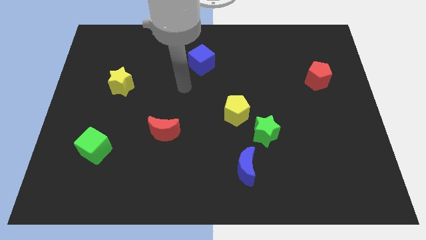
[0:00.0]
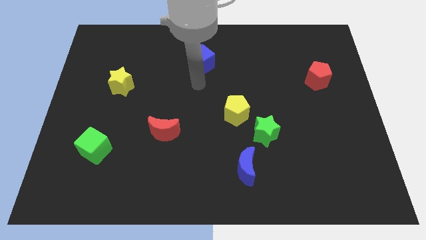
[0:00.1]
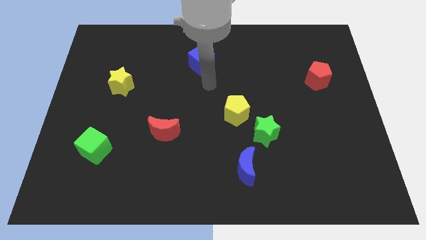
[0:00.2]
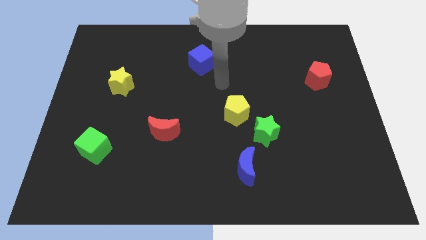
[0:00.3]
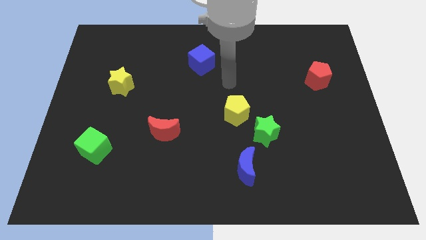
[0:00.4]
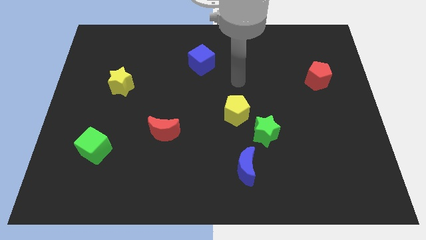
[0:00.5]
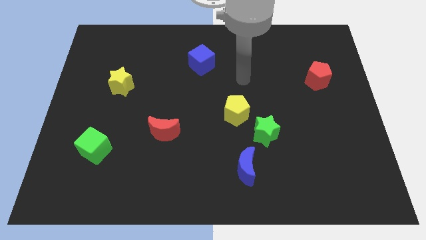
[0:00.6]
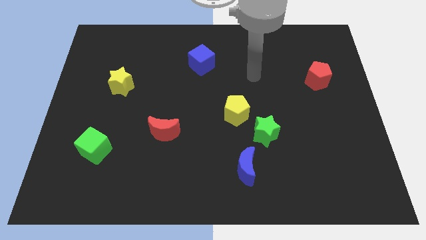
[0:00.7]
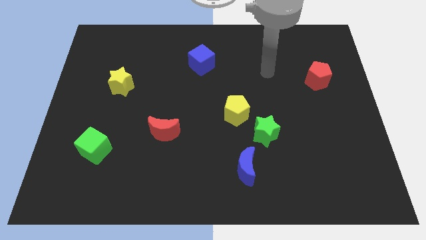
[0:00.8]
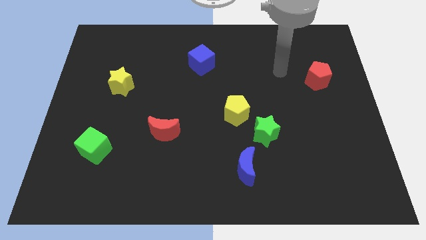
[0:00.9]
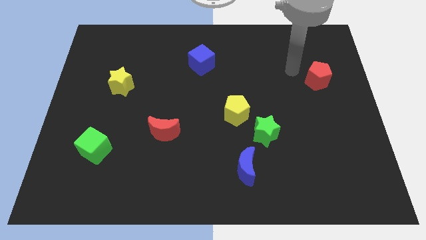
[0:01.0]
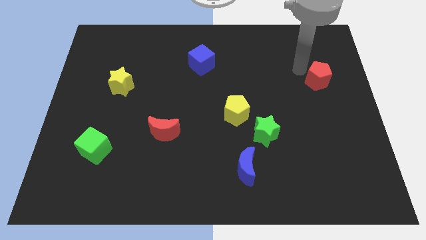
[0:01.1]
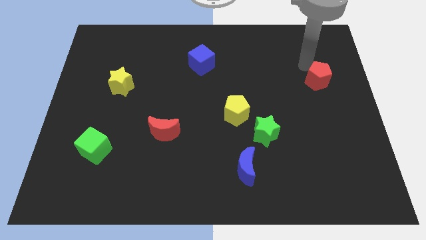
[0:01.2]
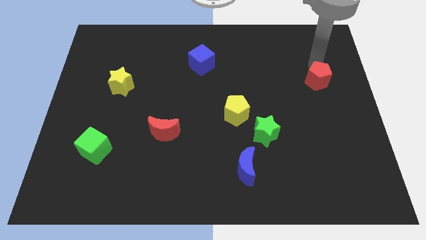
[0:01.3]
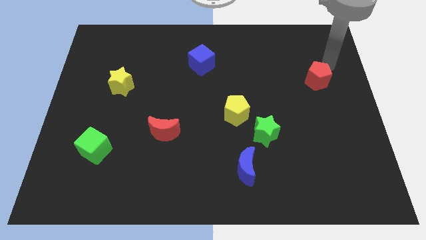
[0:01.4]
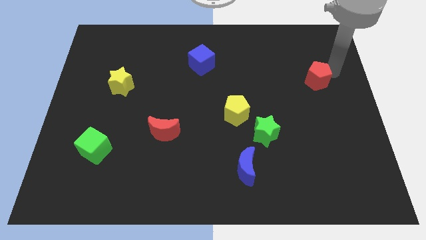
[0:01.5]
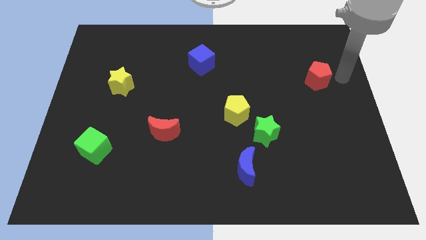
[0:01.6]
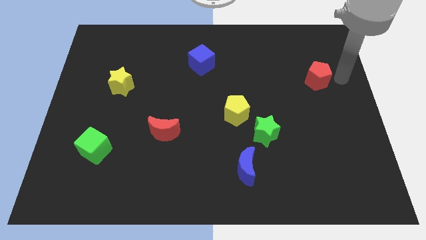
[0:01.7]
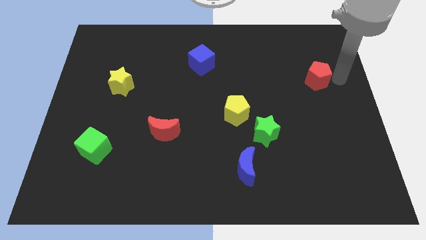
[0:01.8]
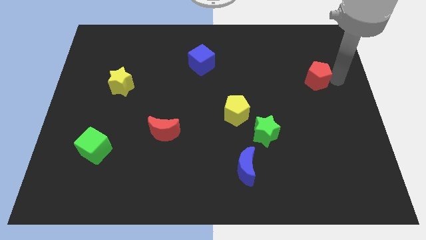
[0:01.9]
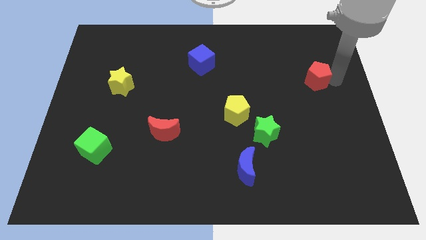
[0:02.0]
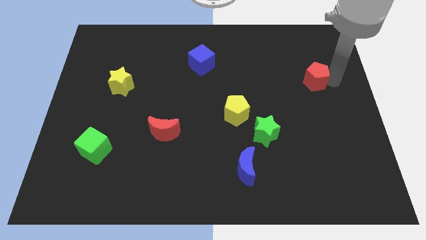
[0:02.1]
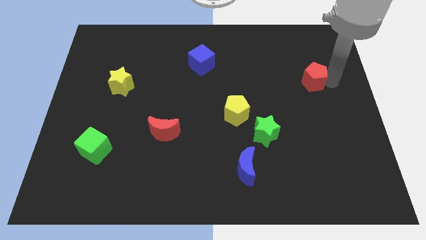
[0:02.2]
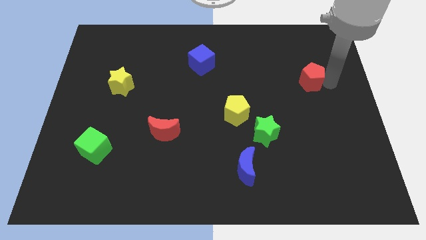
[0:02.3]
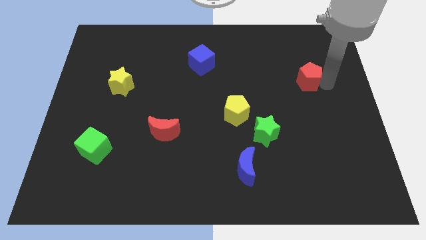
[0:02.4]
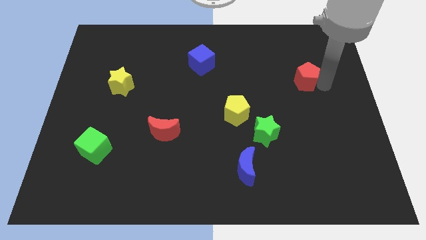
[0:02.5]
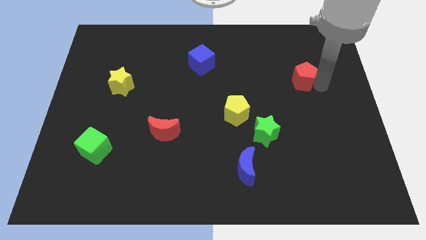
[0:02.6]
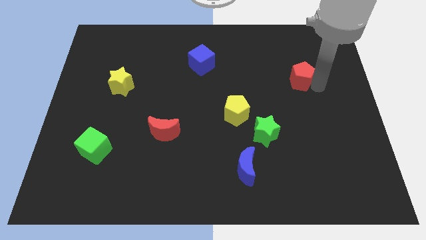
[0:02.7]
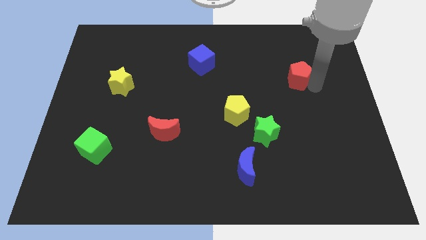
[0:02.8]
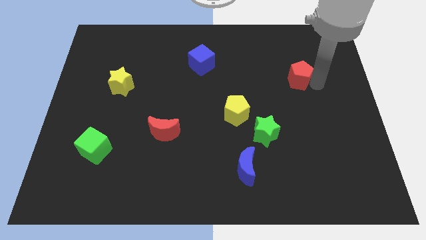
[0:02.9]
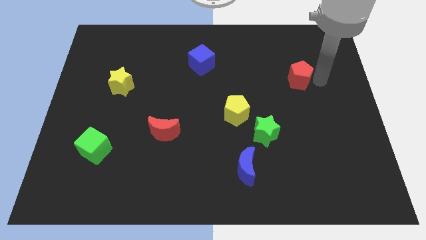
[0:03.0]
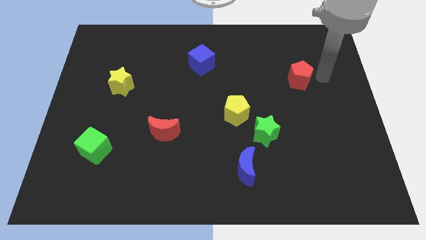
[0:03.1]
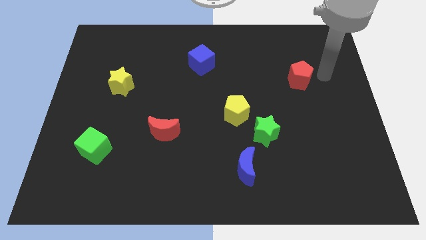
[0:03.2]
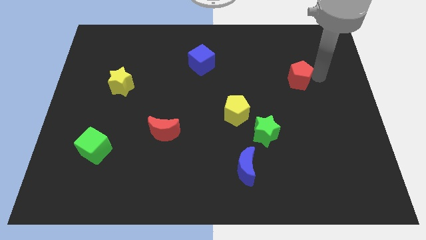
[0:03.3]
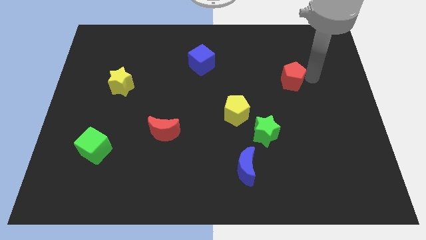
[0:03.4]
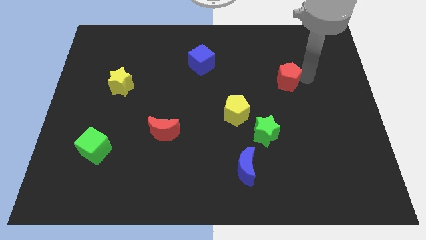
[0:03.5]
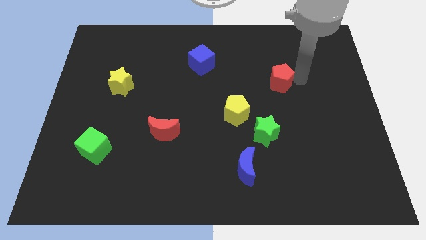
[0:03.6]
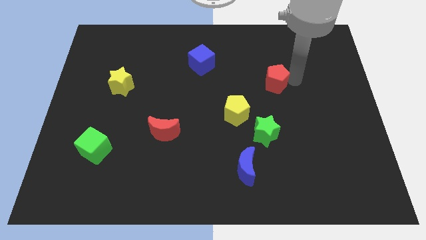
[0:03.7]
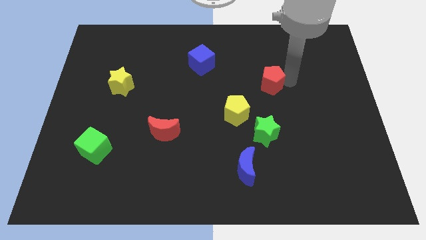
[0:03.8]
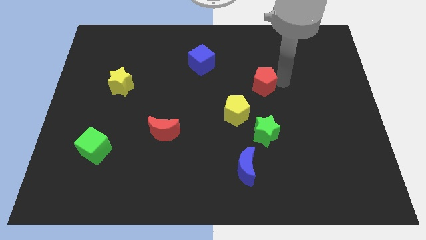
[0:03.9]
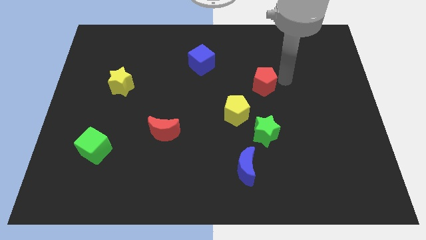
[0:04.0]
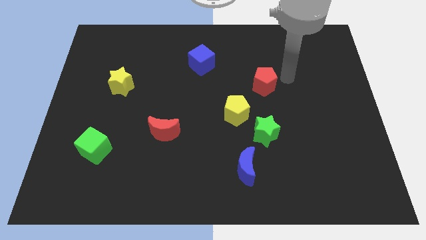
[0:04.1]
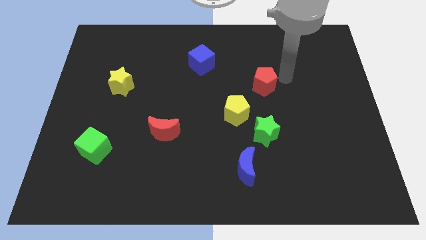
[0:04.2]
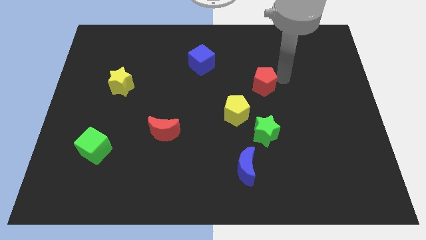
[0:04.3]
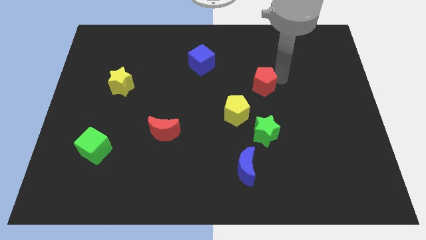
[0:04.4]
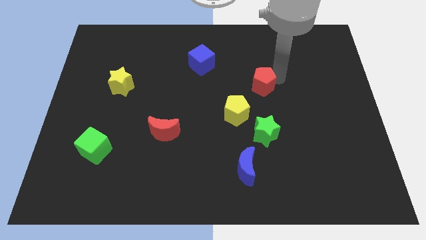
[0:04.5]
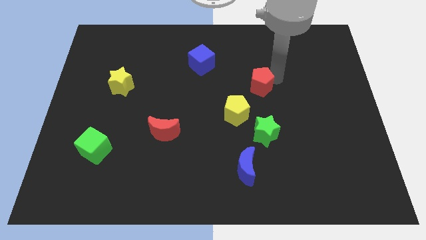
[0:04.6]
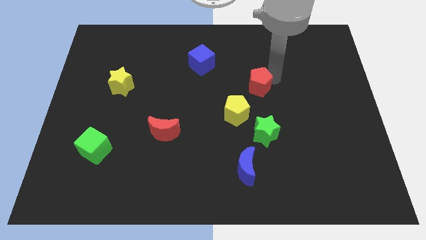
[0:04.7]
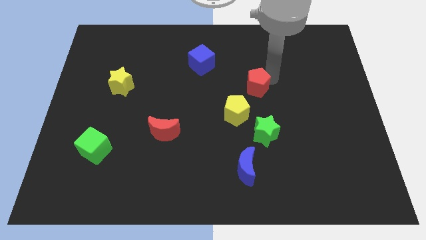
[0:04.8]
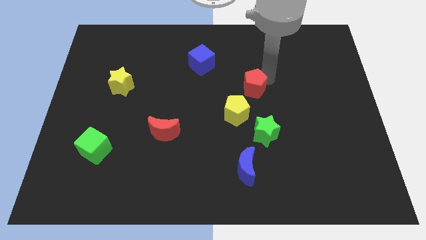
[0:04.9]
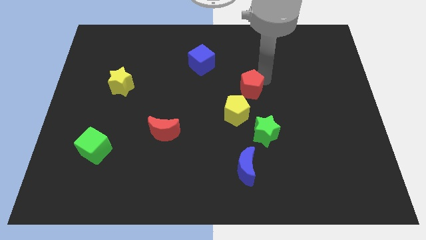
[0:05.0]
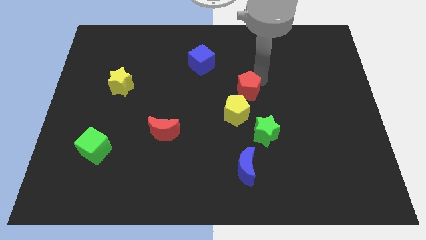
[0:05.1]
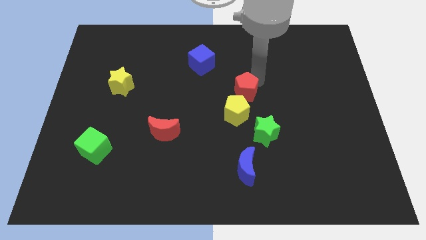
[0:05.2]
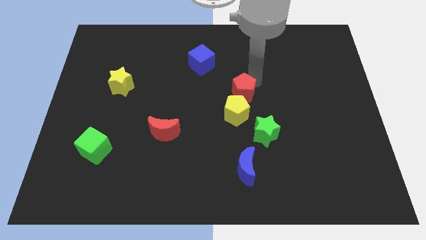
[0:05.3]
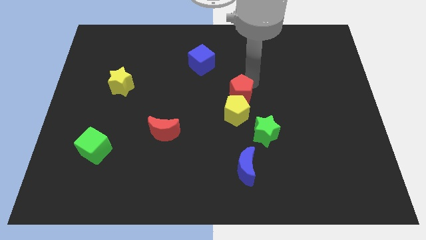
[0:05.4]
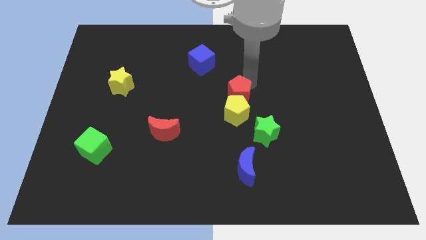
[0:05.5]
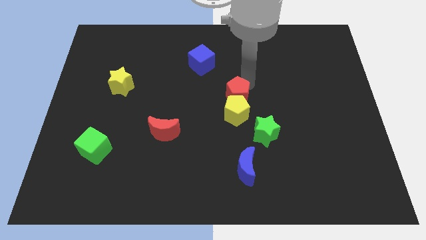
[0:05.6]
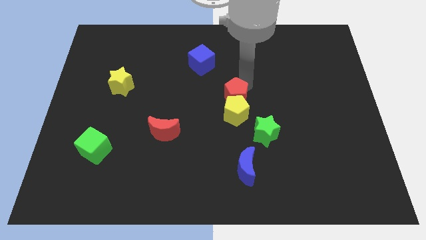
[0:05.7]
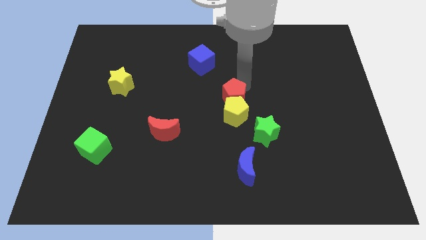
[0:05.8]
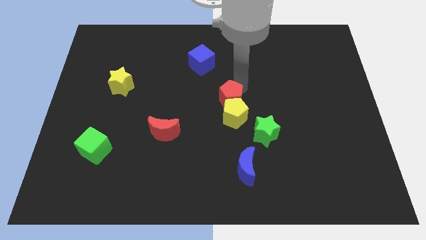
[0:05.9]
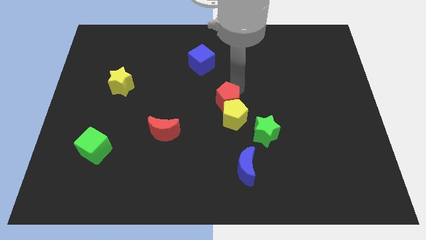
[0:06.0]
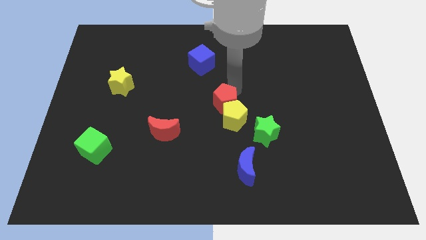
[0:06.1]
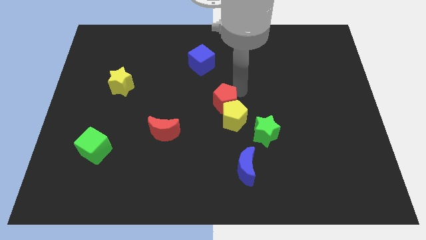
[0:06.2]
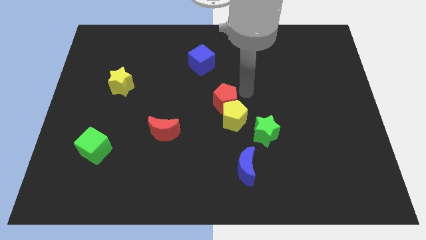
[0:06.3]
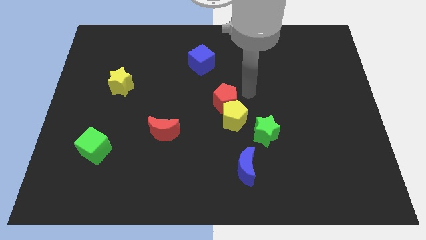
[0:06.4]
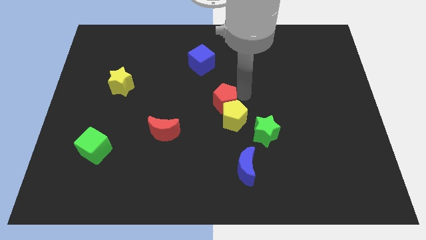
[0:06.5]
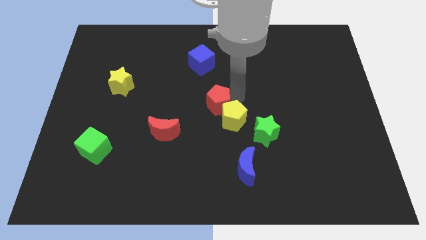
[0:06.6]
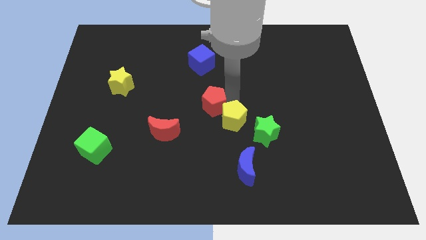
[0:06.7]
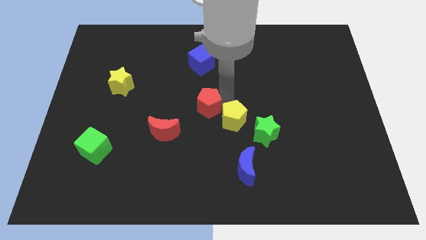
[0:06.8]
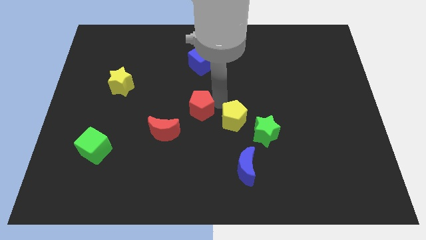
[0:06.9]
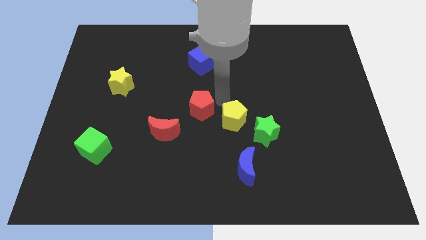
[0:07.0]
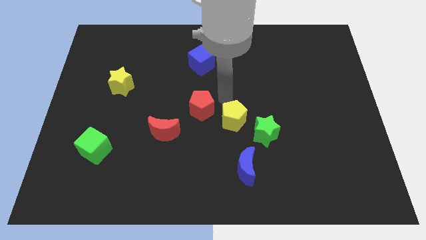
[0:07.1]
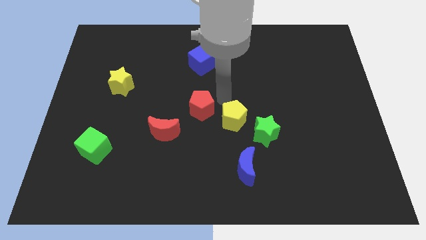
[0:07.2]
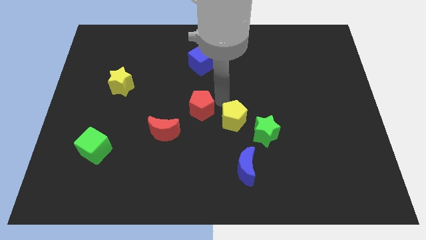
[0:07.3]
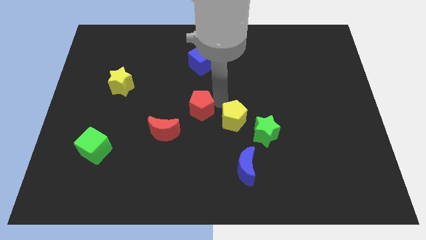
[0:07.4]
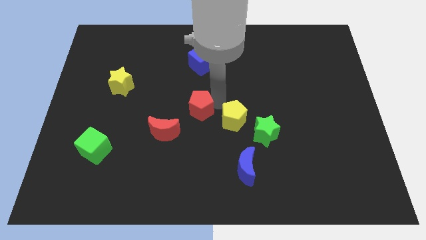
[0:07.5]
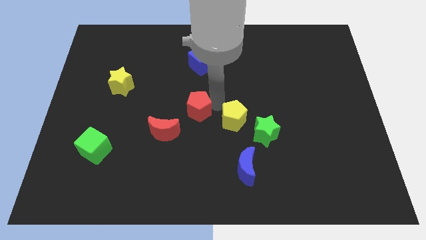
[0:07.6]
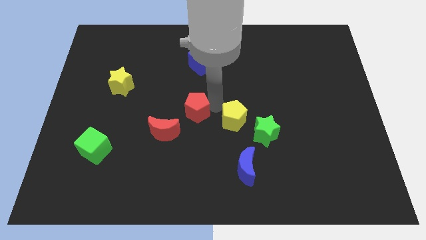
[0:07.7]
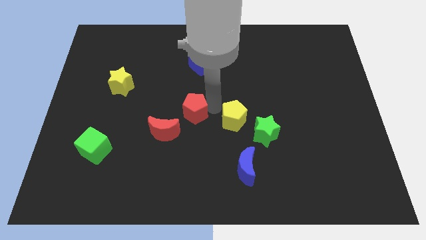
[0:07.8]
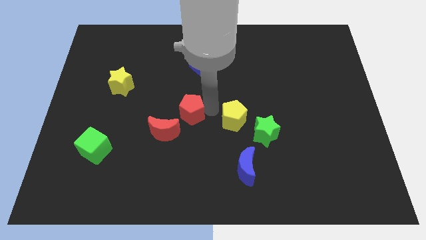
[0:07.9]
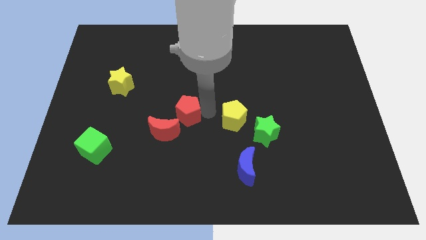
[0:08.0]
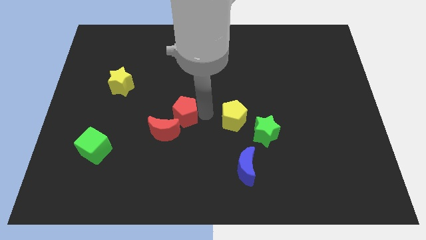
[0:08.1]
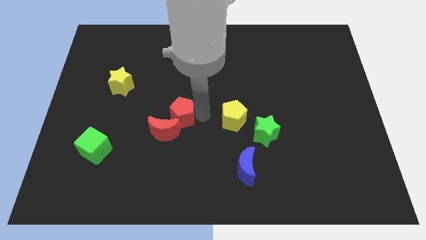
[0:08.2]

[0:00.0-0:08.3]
put the red pentagon to the red moon
